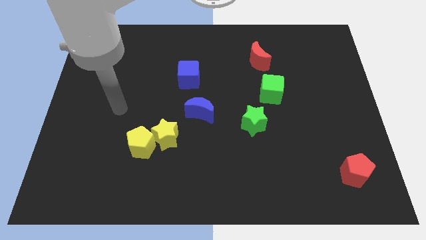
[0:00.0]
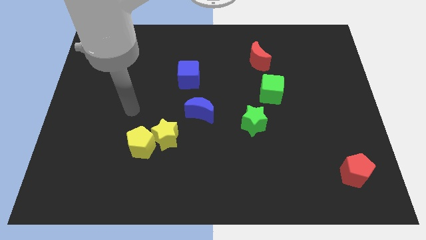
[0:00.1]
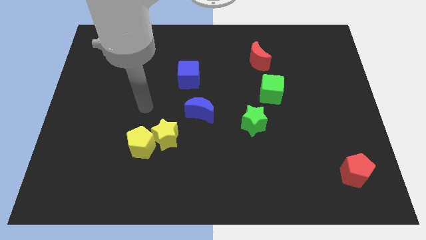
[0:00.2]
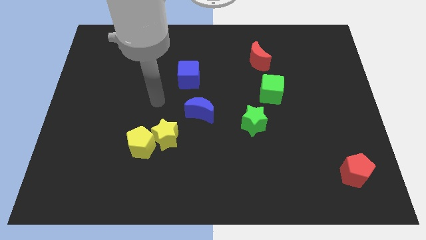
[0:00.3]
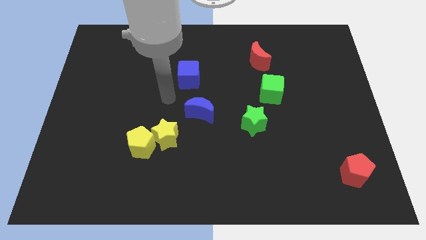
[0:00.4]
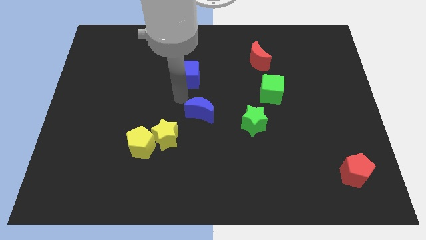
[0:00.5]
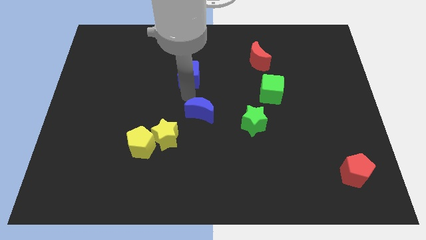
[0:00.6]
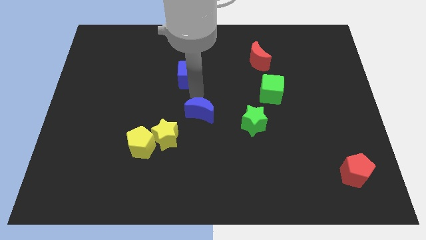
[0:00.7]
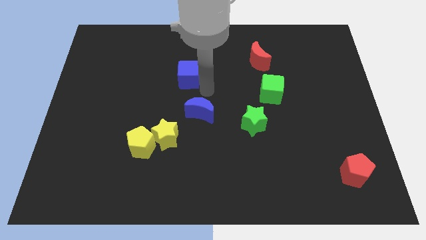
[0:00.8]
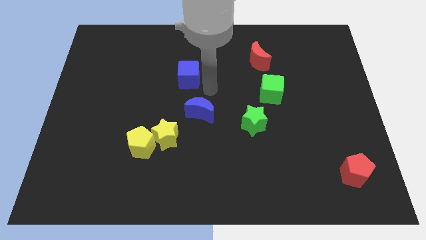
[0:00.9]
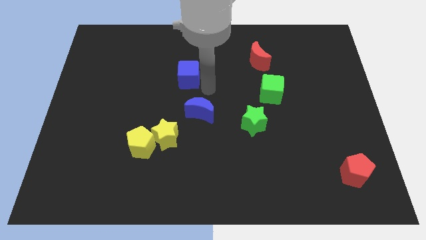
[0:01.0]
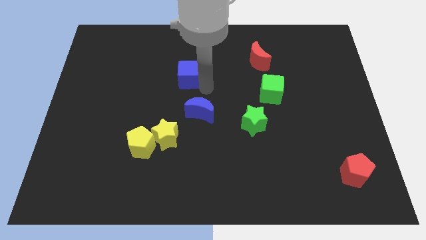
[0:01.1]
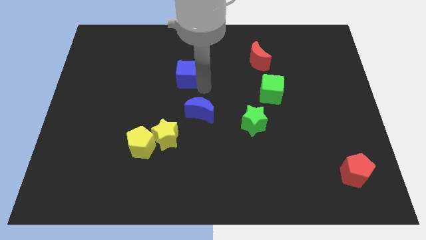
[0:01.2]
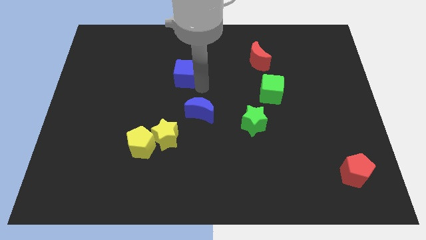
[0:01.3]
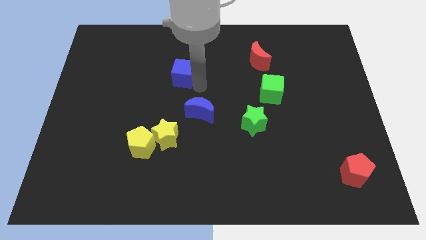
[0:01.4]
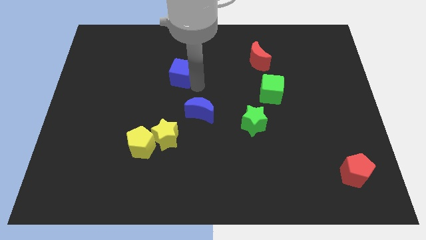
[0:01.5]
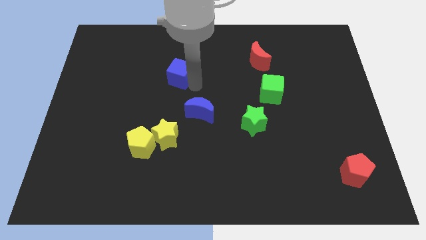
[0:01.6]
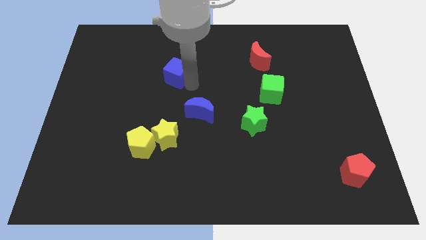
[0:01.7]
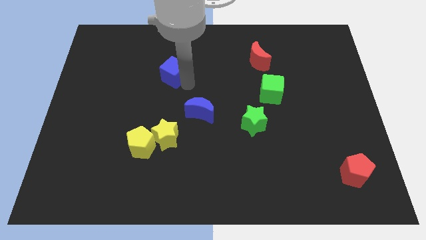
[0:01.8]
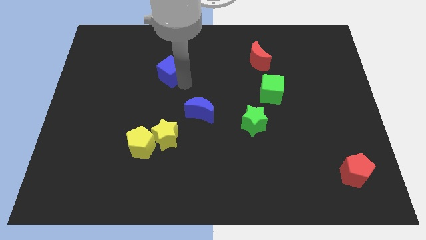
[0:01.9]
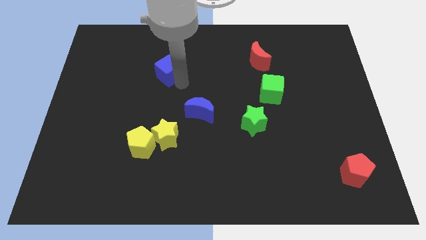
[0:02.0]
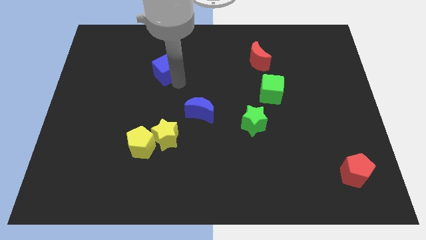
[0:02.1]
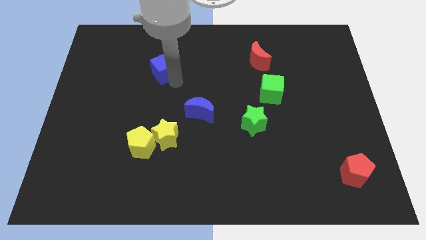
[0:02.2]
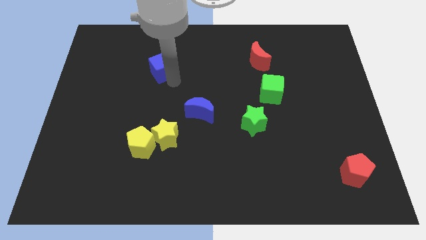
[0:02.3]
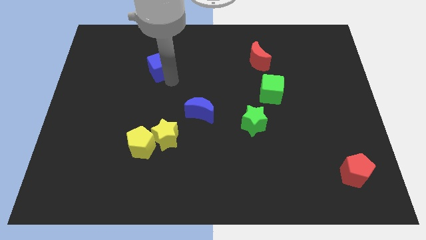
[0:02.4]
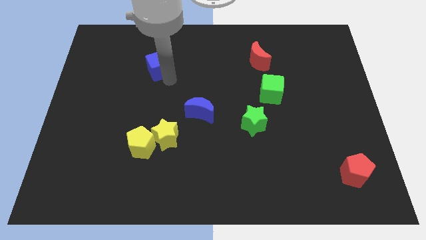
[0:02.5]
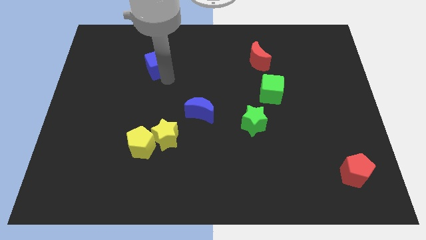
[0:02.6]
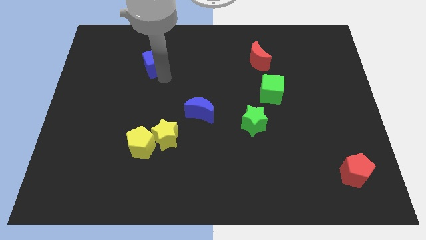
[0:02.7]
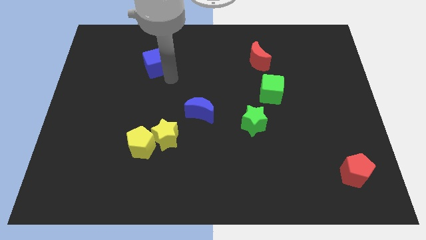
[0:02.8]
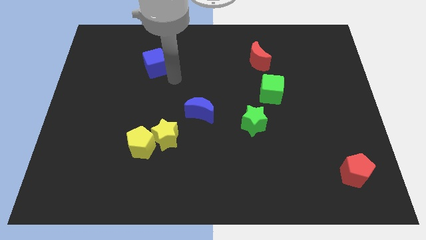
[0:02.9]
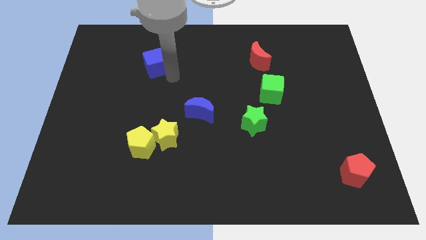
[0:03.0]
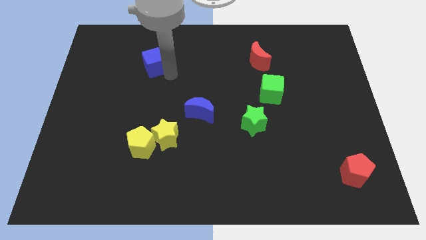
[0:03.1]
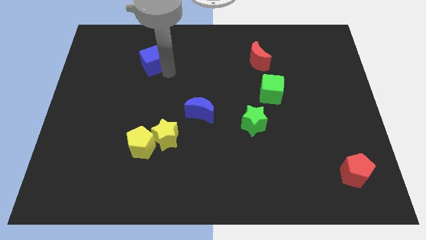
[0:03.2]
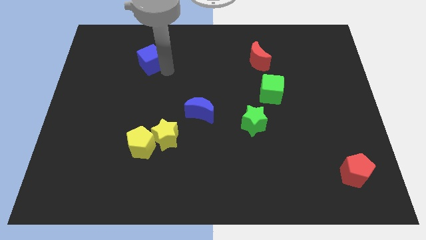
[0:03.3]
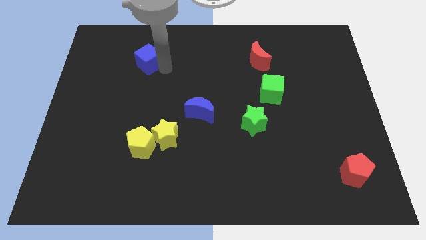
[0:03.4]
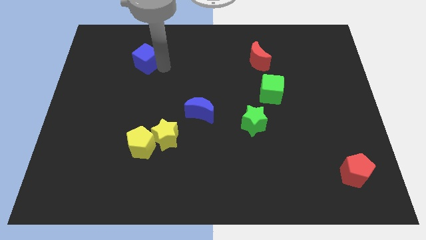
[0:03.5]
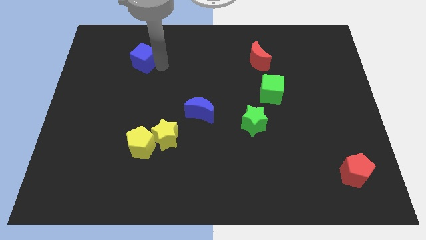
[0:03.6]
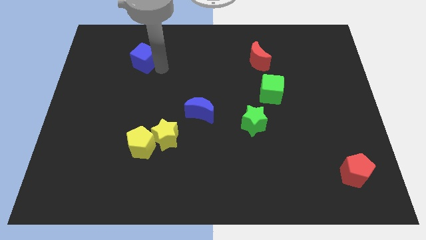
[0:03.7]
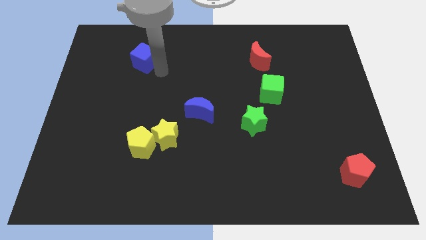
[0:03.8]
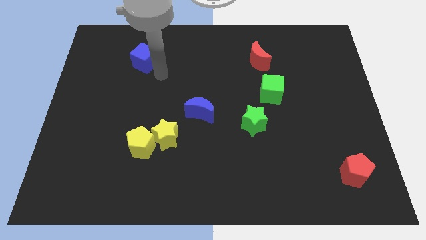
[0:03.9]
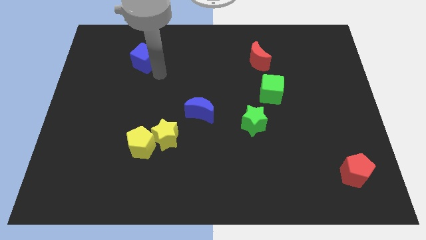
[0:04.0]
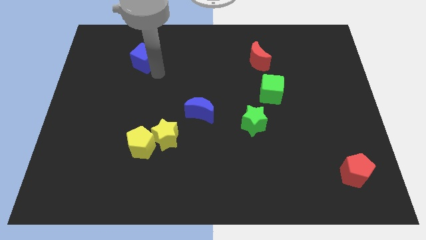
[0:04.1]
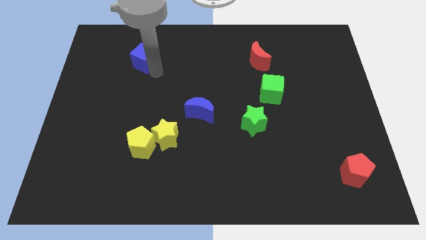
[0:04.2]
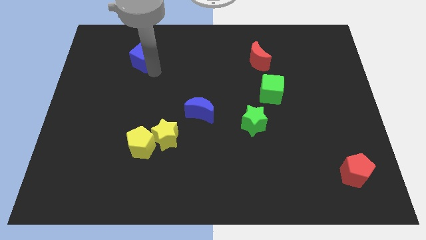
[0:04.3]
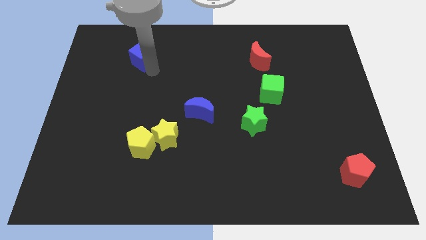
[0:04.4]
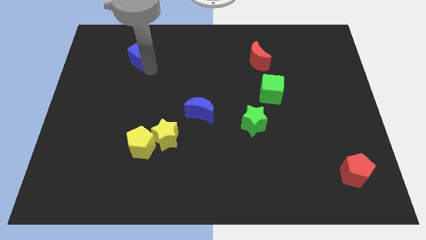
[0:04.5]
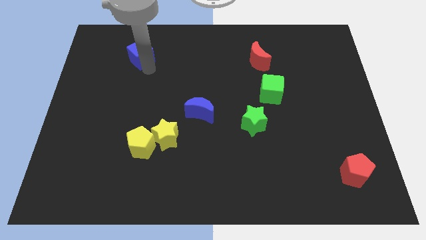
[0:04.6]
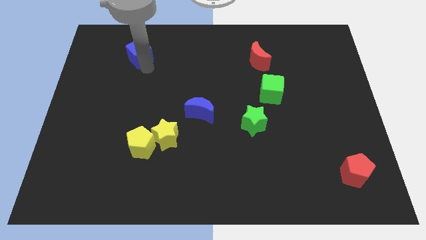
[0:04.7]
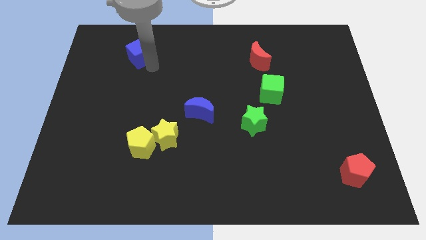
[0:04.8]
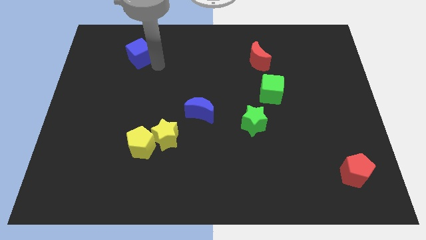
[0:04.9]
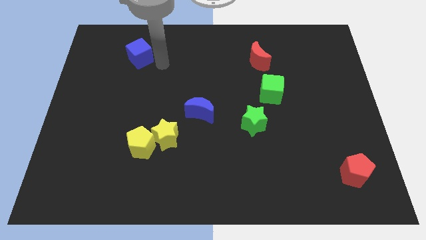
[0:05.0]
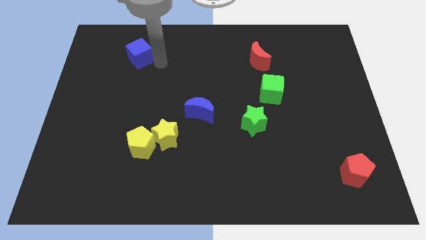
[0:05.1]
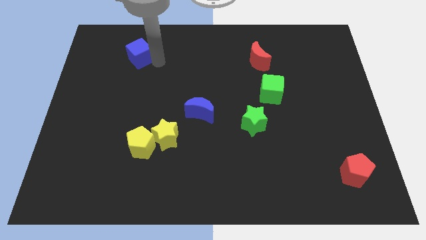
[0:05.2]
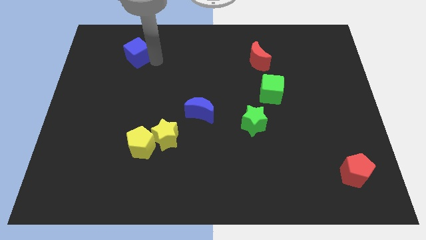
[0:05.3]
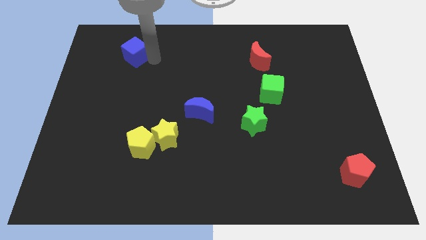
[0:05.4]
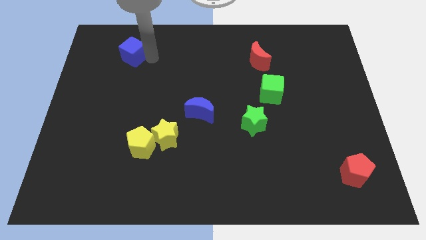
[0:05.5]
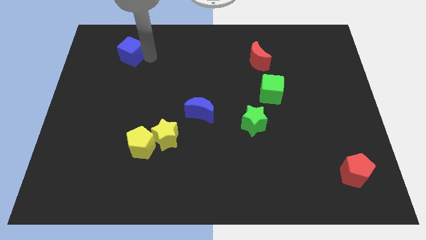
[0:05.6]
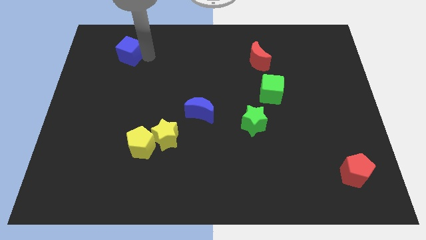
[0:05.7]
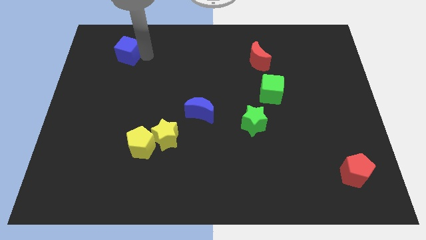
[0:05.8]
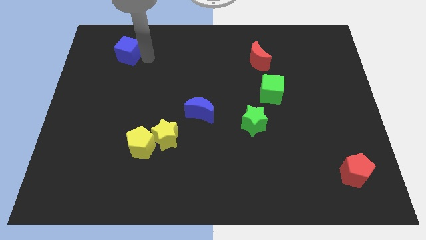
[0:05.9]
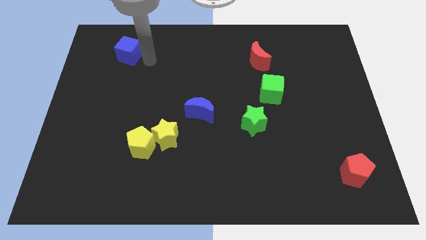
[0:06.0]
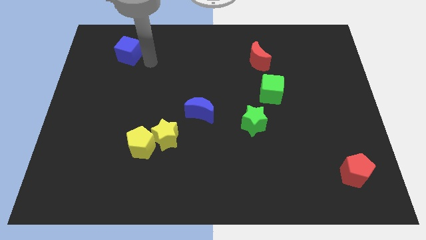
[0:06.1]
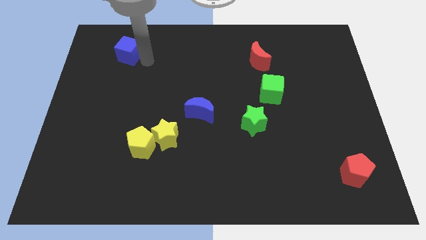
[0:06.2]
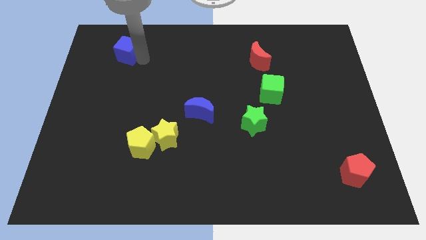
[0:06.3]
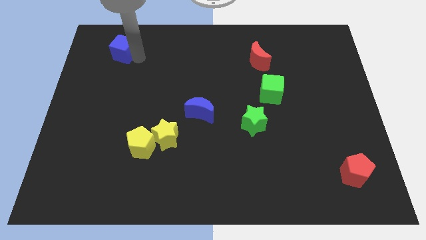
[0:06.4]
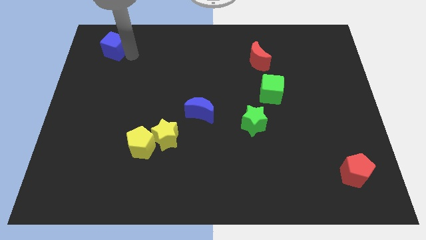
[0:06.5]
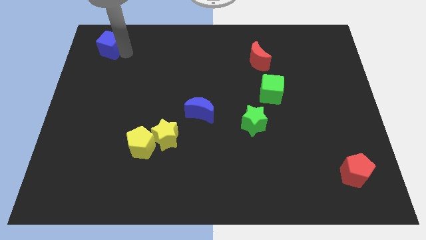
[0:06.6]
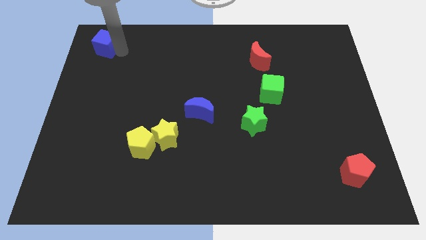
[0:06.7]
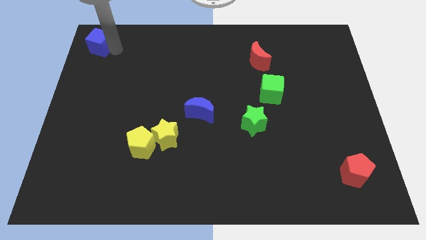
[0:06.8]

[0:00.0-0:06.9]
push the blue cube to the top left corner
